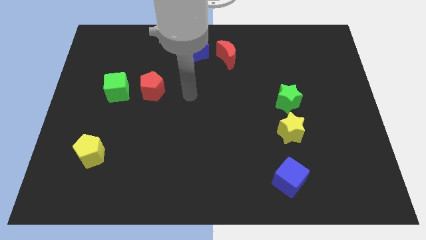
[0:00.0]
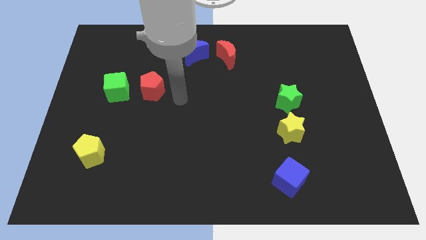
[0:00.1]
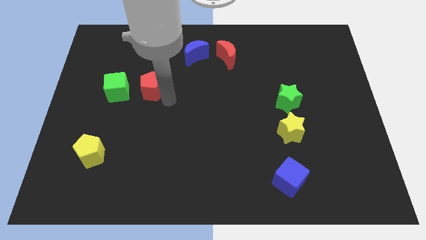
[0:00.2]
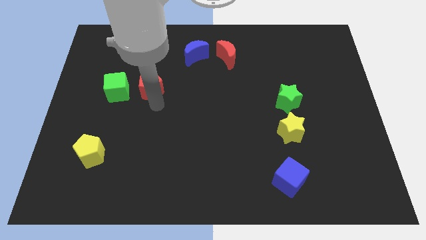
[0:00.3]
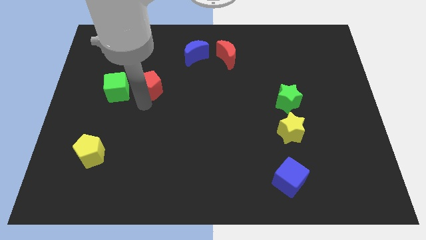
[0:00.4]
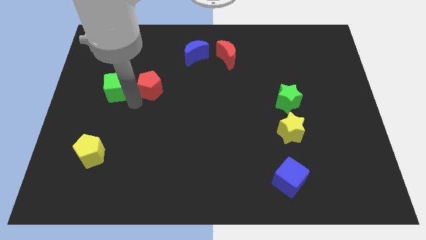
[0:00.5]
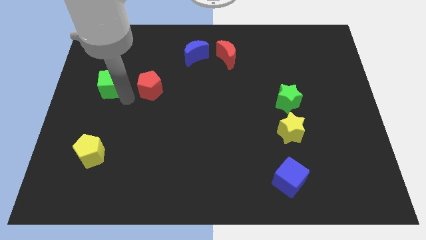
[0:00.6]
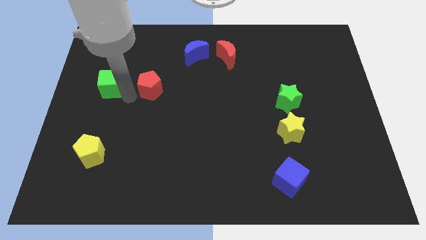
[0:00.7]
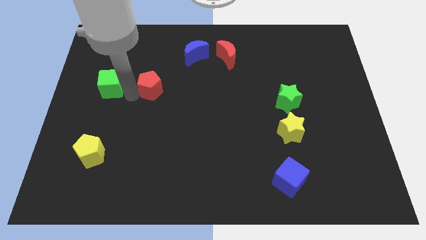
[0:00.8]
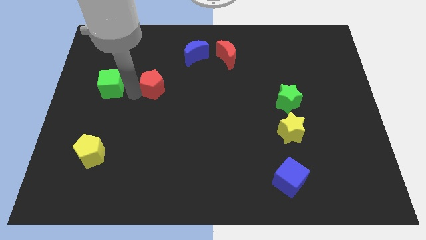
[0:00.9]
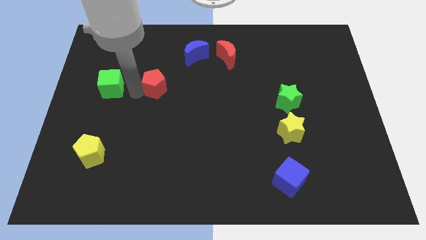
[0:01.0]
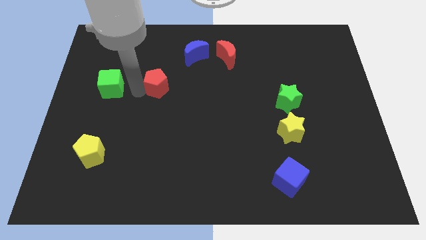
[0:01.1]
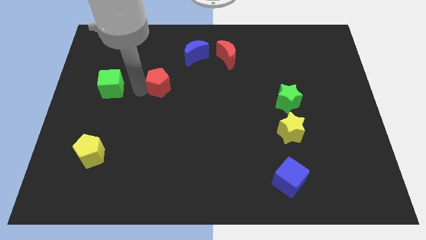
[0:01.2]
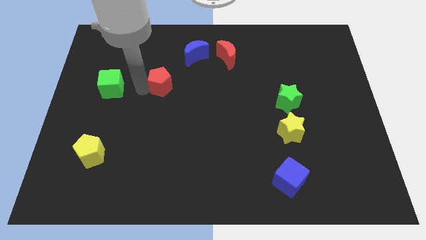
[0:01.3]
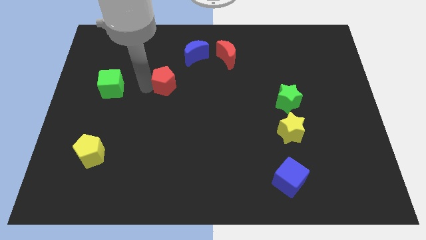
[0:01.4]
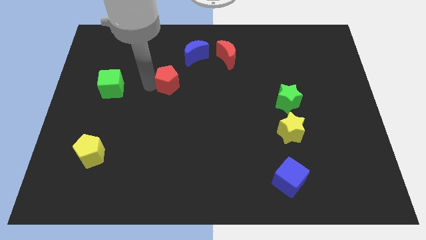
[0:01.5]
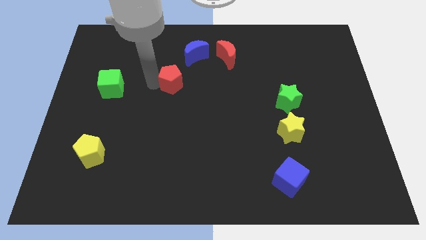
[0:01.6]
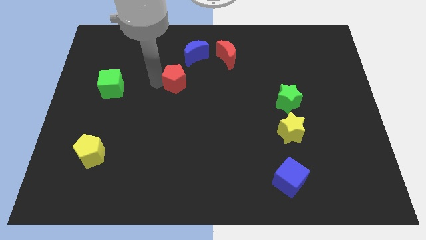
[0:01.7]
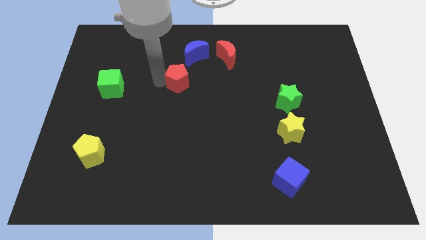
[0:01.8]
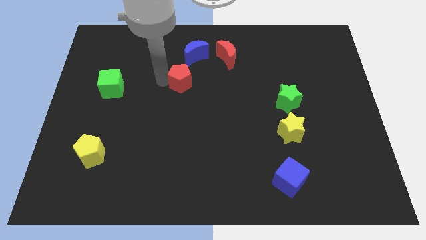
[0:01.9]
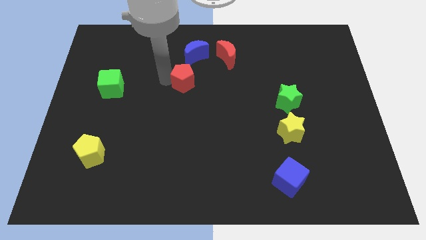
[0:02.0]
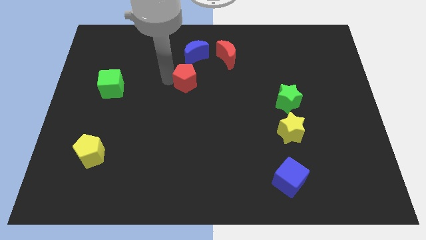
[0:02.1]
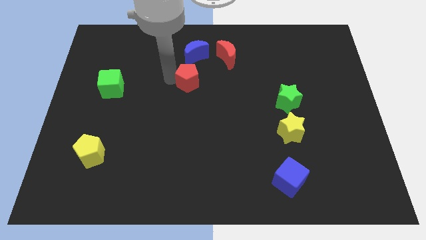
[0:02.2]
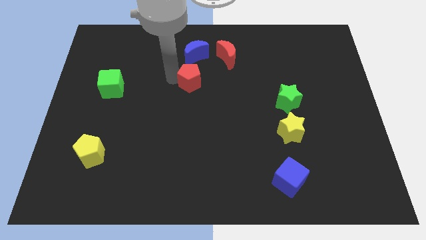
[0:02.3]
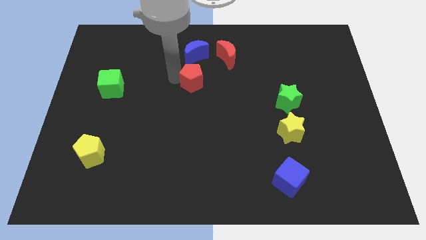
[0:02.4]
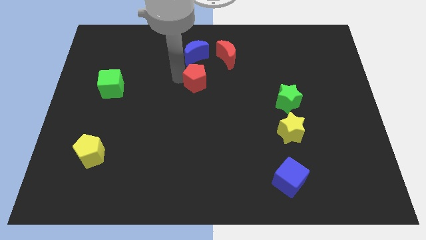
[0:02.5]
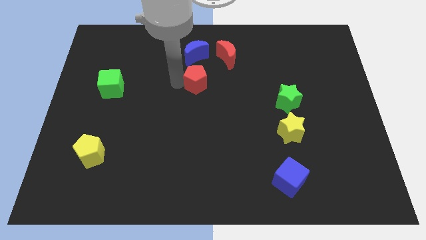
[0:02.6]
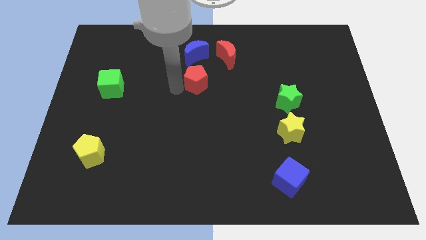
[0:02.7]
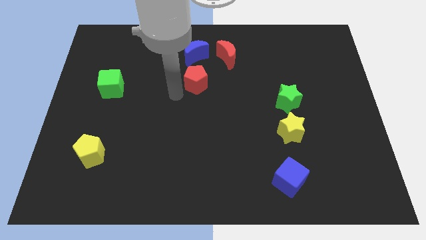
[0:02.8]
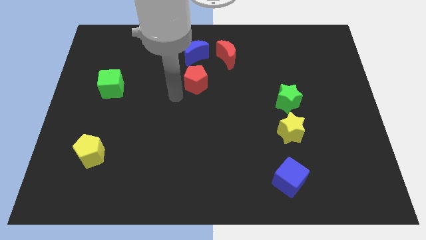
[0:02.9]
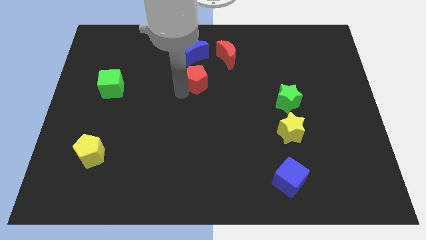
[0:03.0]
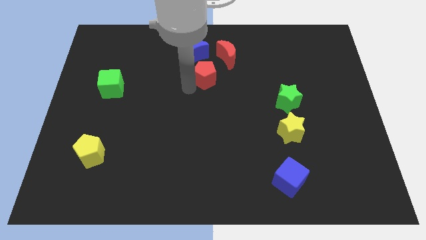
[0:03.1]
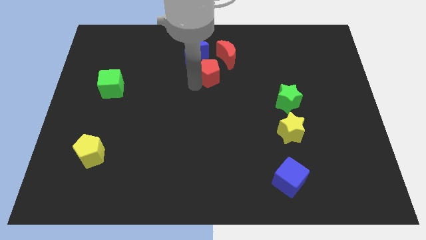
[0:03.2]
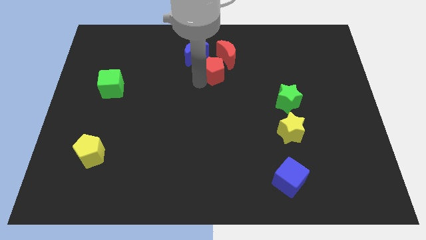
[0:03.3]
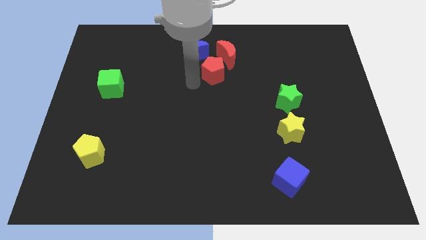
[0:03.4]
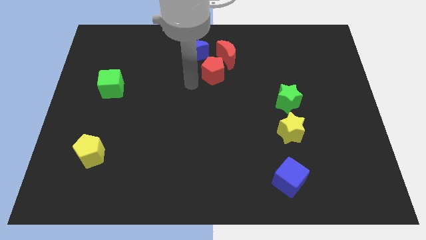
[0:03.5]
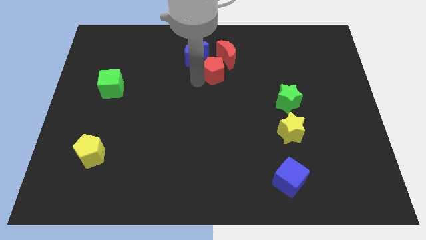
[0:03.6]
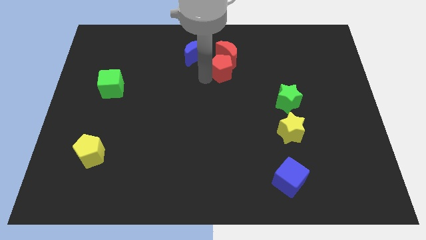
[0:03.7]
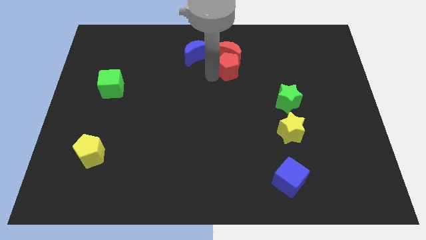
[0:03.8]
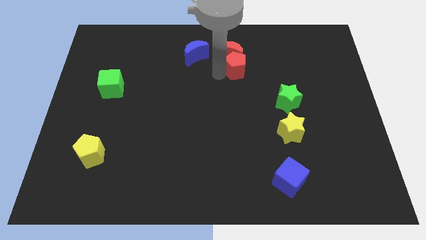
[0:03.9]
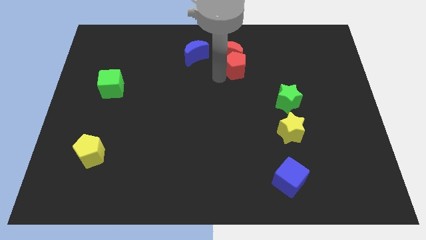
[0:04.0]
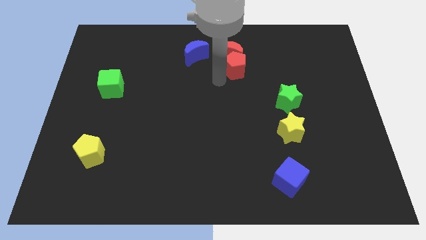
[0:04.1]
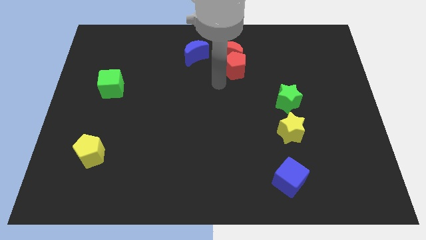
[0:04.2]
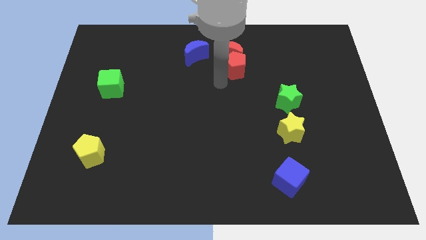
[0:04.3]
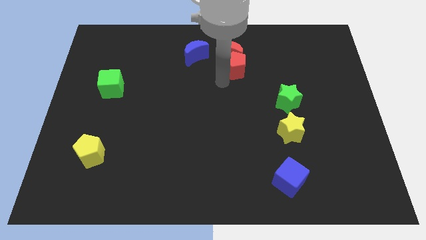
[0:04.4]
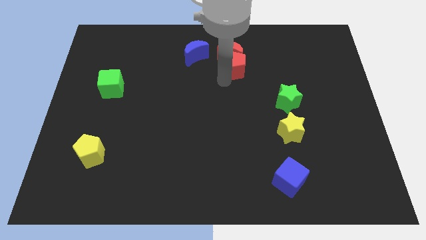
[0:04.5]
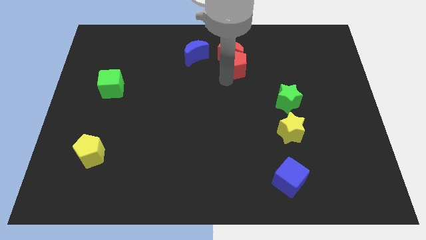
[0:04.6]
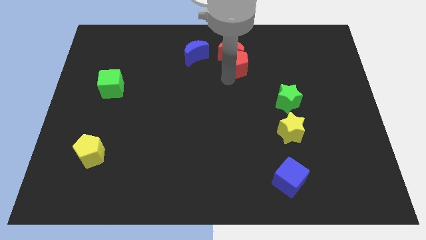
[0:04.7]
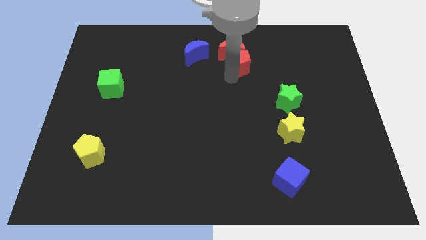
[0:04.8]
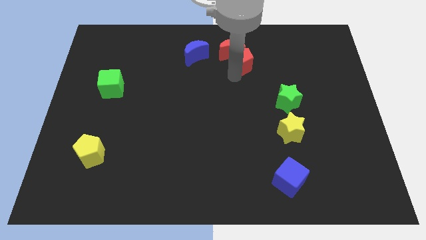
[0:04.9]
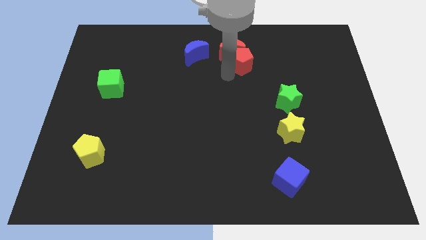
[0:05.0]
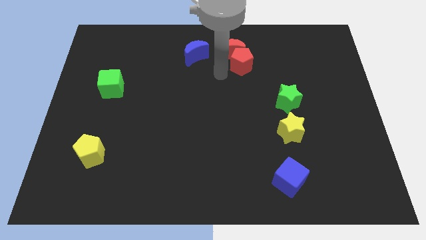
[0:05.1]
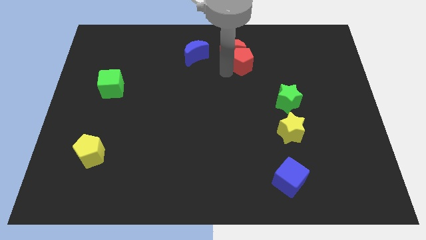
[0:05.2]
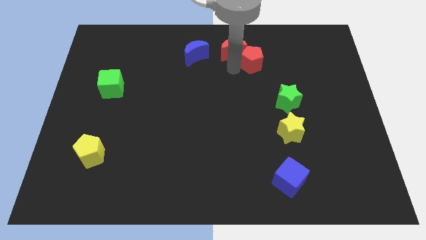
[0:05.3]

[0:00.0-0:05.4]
push the red pentagon to the right of the red moon

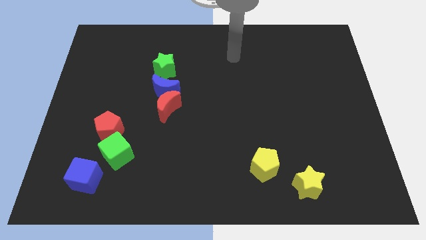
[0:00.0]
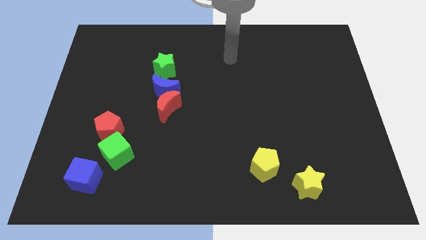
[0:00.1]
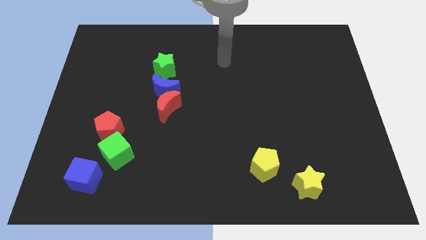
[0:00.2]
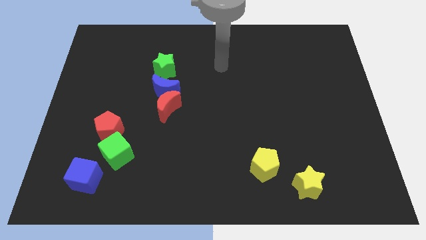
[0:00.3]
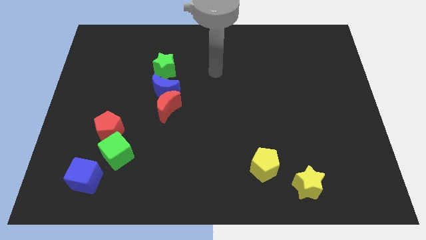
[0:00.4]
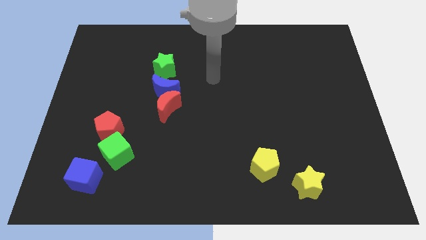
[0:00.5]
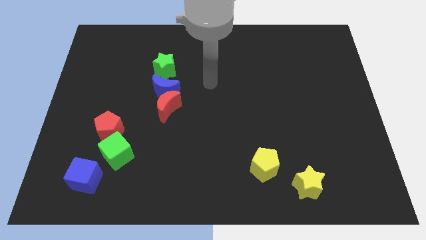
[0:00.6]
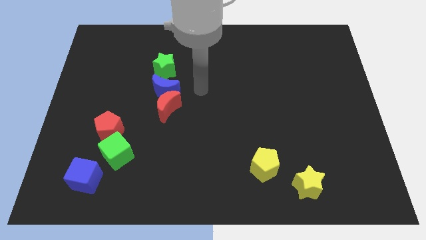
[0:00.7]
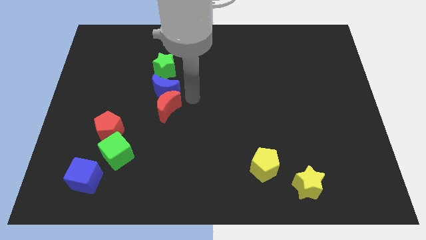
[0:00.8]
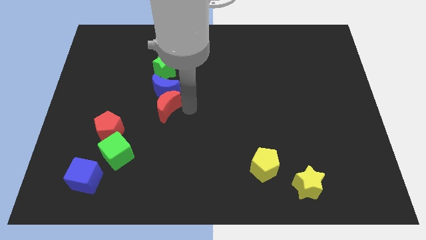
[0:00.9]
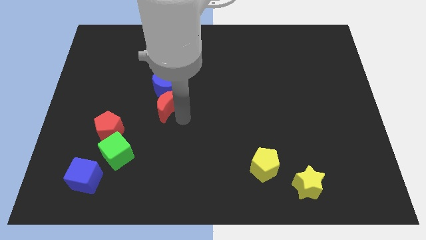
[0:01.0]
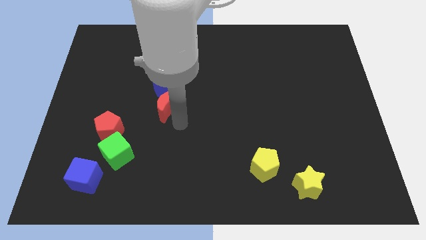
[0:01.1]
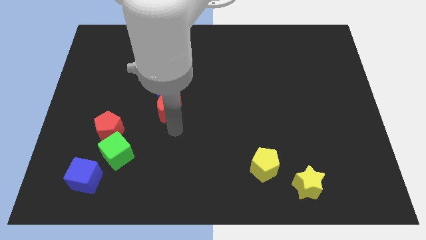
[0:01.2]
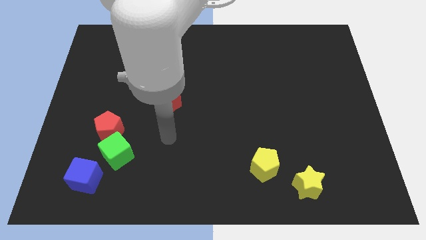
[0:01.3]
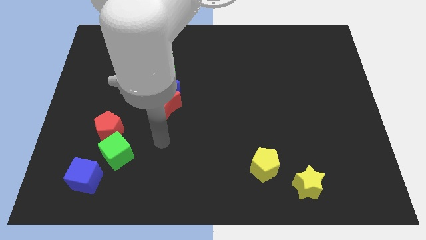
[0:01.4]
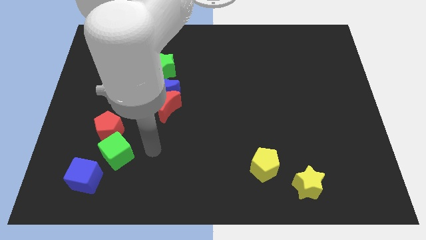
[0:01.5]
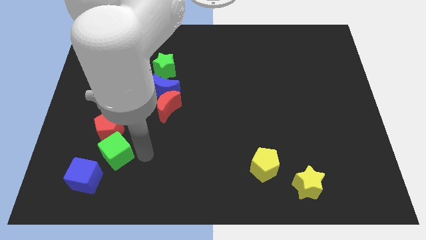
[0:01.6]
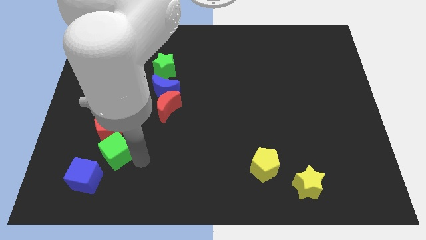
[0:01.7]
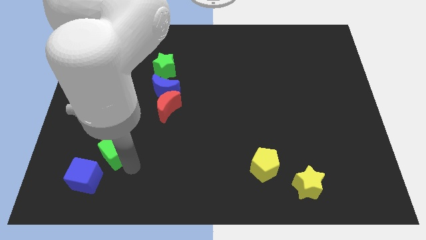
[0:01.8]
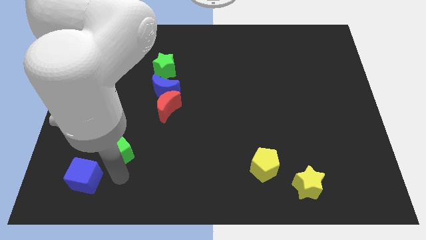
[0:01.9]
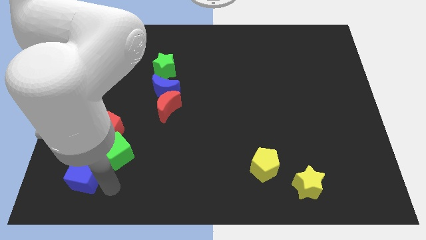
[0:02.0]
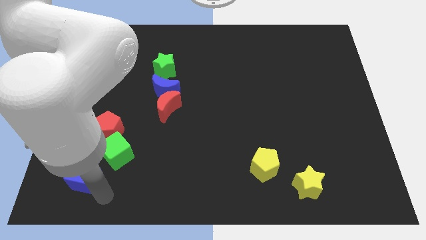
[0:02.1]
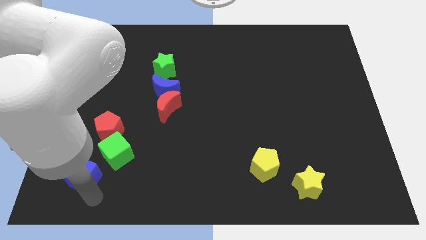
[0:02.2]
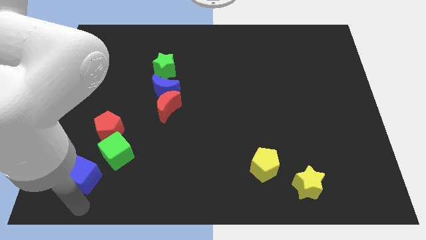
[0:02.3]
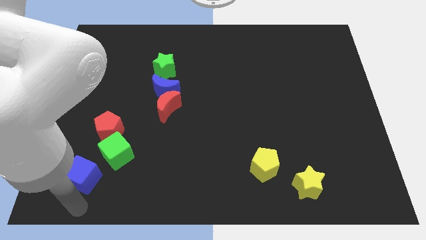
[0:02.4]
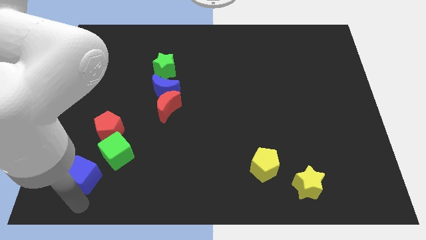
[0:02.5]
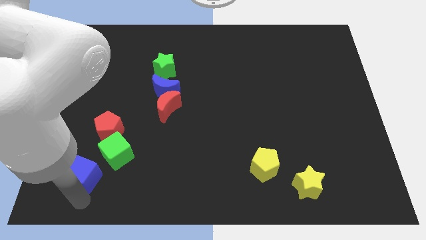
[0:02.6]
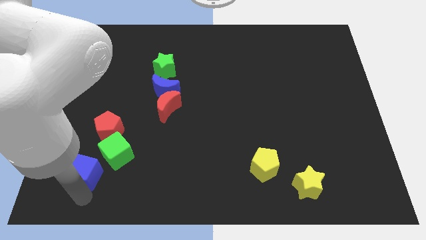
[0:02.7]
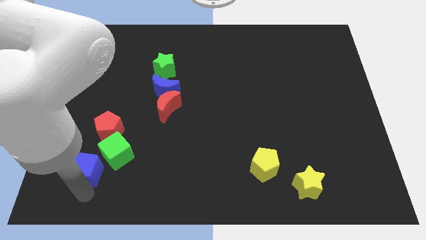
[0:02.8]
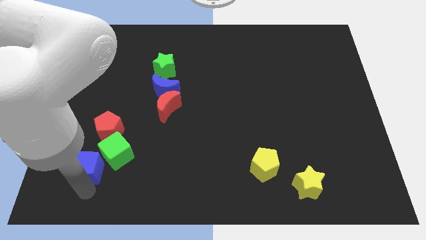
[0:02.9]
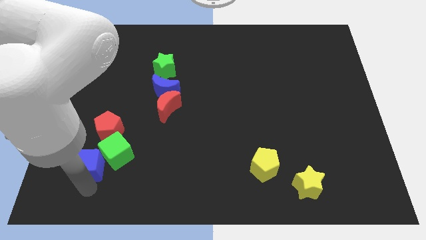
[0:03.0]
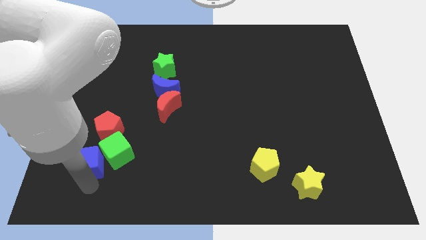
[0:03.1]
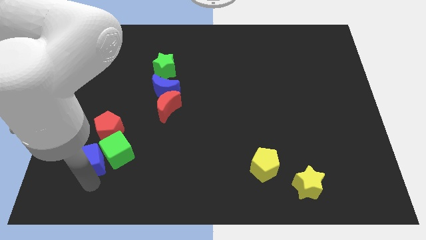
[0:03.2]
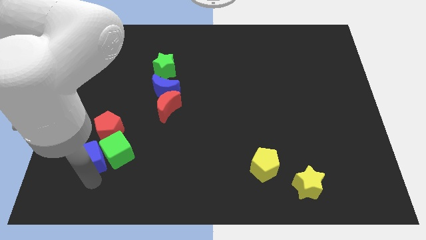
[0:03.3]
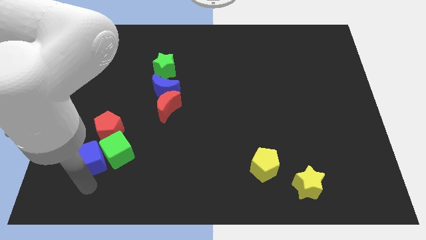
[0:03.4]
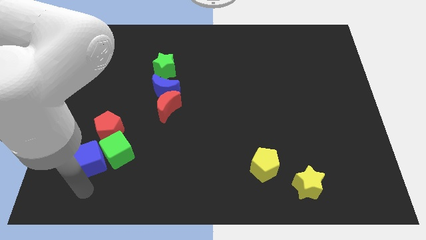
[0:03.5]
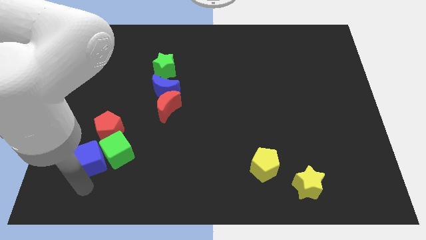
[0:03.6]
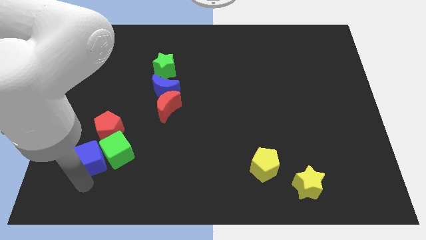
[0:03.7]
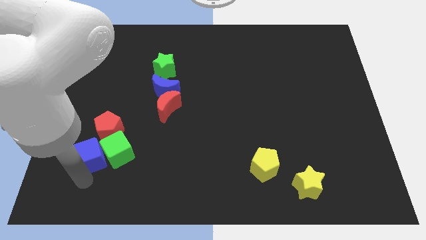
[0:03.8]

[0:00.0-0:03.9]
put the blue cube to the top left of the green cube
